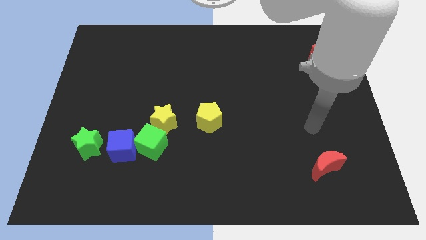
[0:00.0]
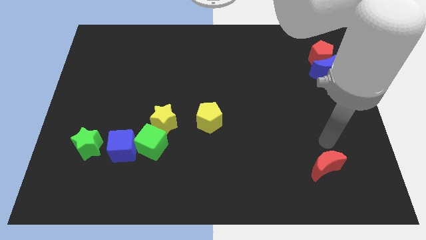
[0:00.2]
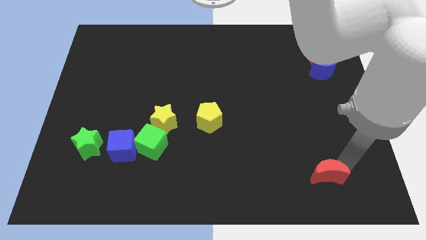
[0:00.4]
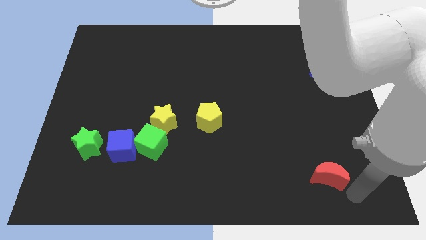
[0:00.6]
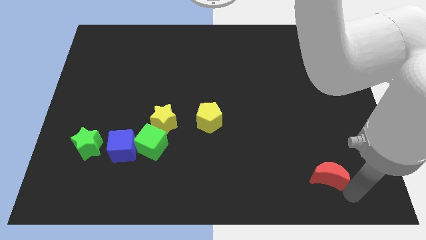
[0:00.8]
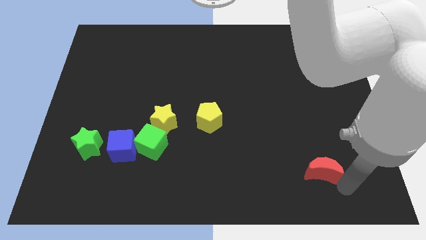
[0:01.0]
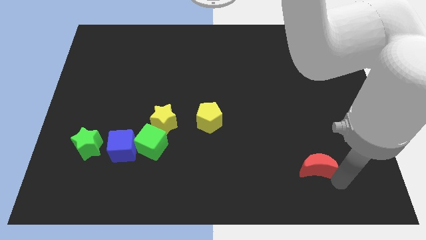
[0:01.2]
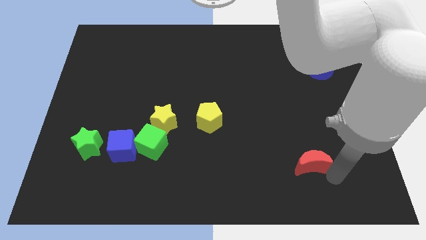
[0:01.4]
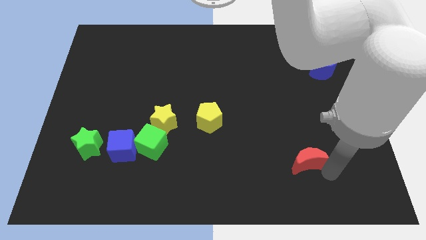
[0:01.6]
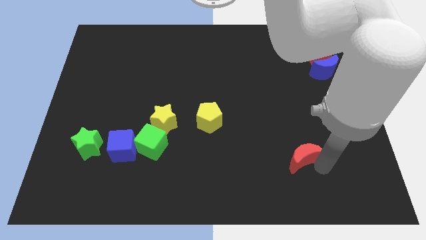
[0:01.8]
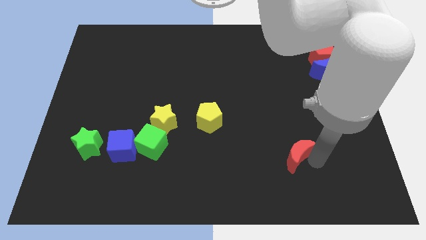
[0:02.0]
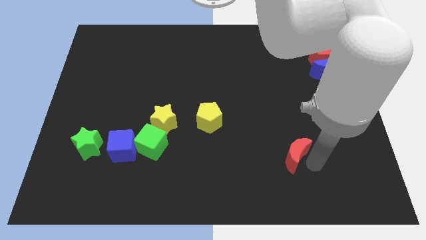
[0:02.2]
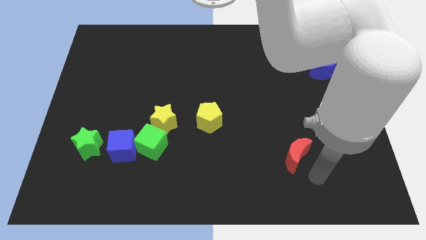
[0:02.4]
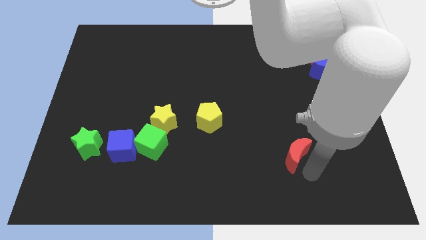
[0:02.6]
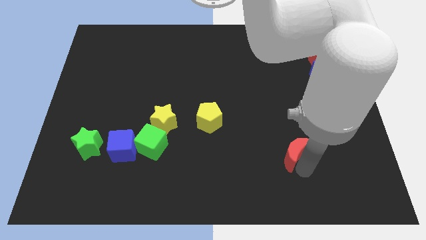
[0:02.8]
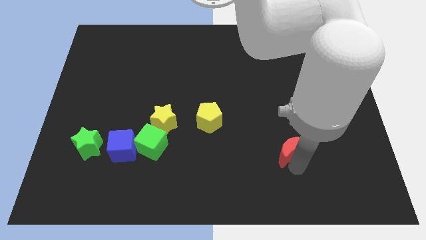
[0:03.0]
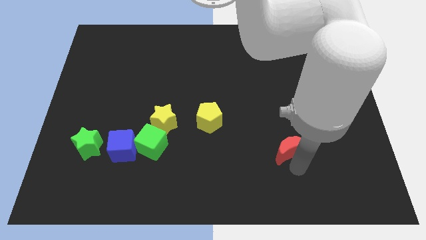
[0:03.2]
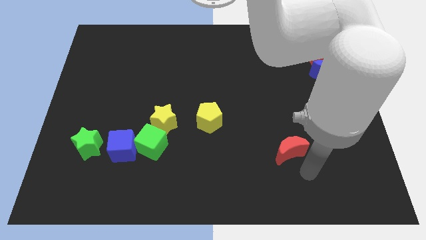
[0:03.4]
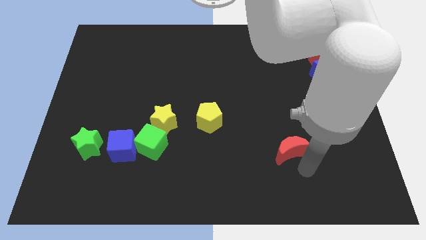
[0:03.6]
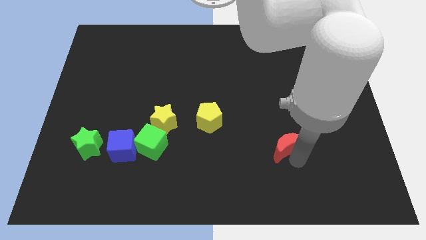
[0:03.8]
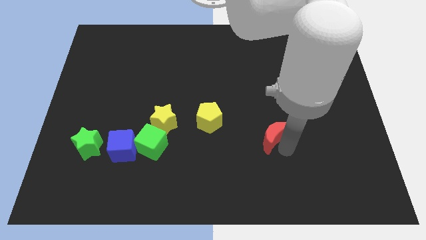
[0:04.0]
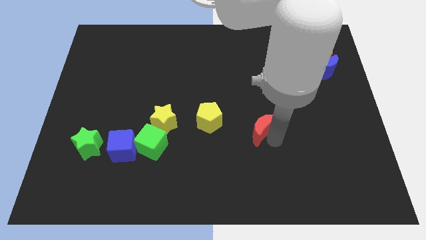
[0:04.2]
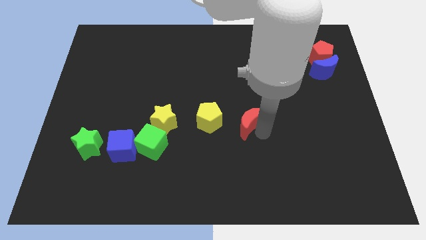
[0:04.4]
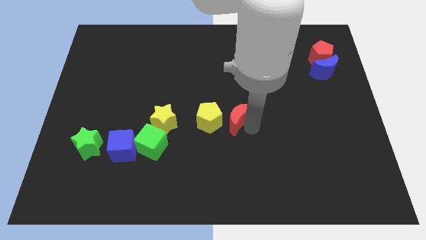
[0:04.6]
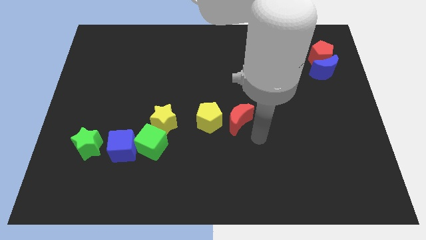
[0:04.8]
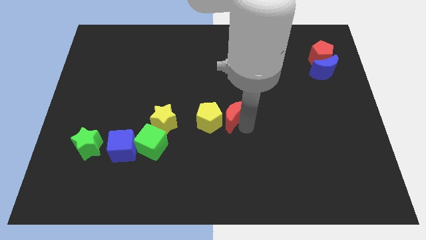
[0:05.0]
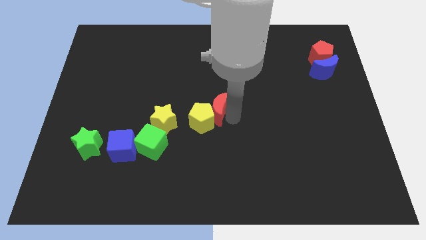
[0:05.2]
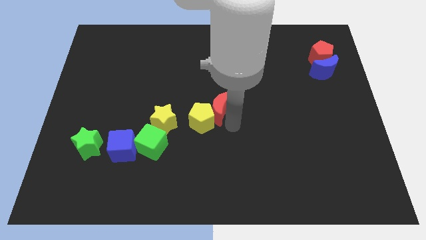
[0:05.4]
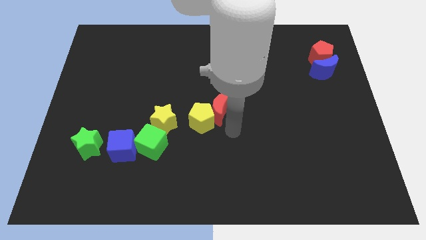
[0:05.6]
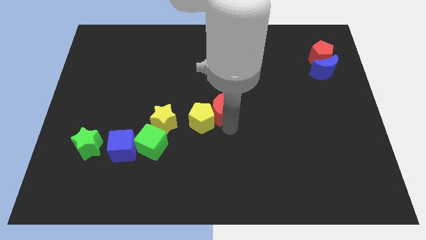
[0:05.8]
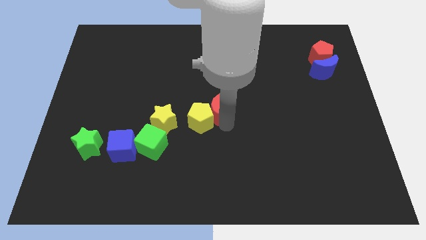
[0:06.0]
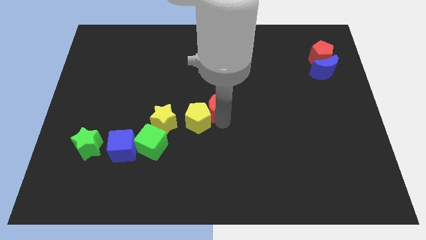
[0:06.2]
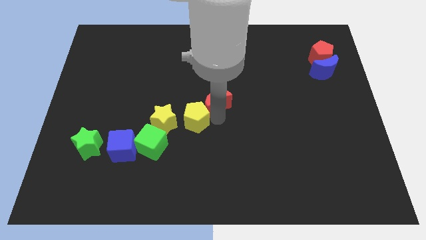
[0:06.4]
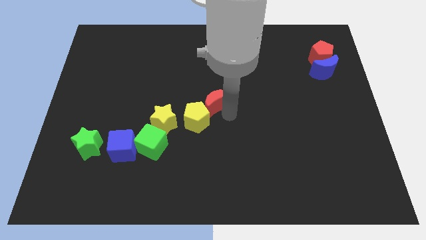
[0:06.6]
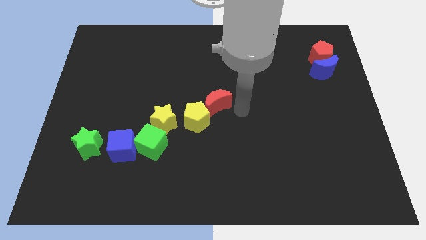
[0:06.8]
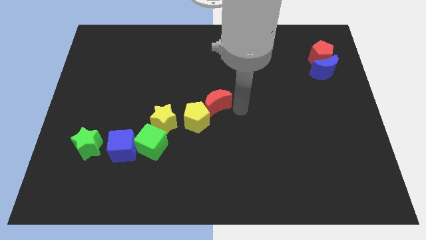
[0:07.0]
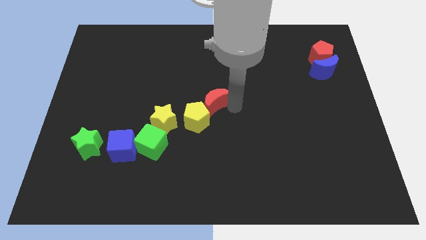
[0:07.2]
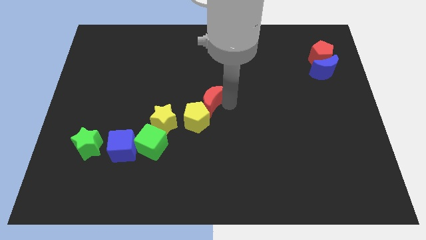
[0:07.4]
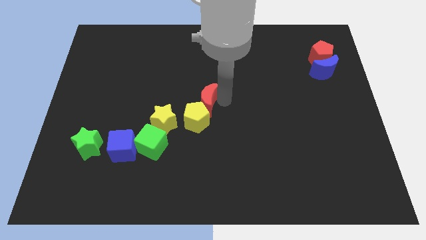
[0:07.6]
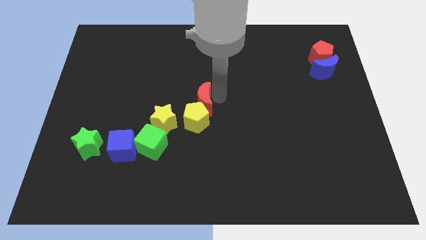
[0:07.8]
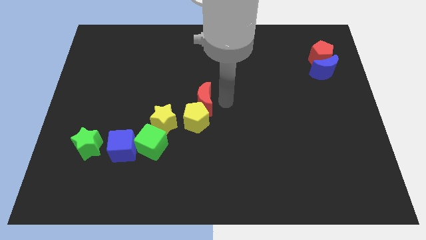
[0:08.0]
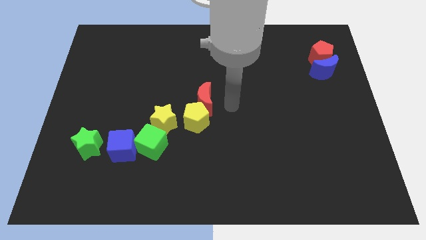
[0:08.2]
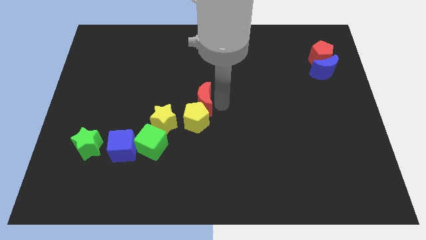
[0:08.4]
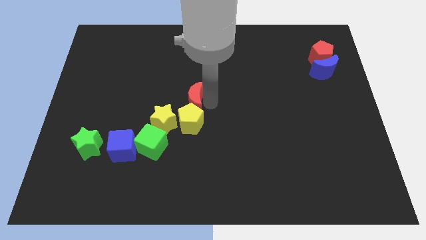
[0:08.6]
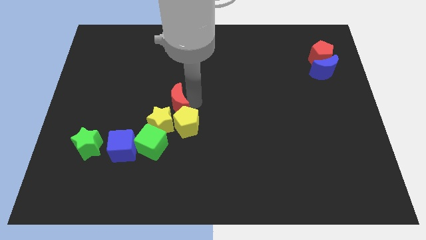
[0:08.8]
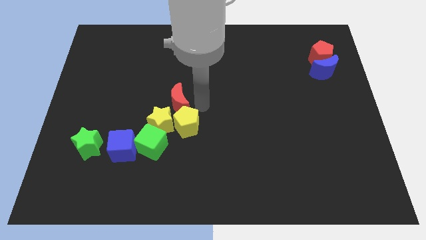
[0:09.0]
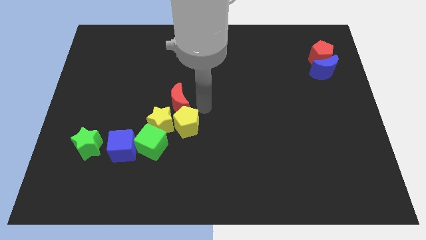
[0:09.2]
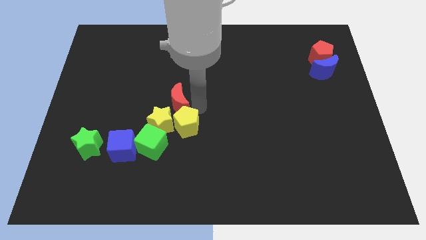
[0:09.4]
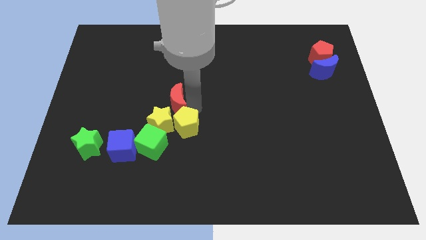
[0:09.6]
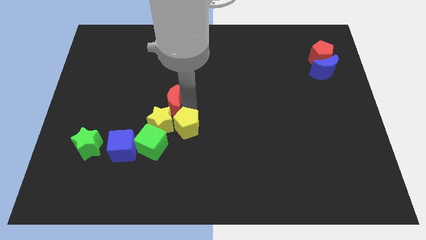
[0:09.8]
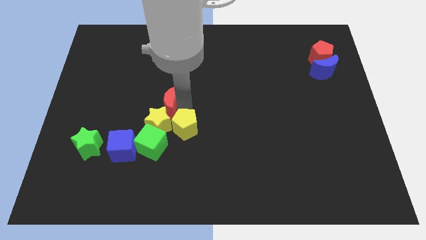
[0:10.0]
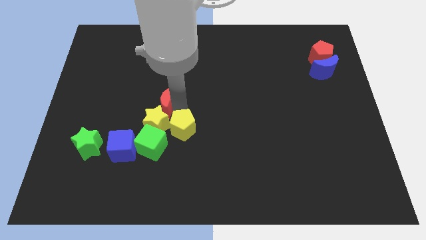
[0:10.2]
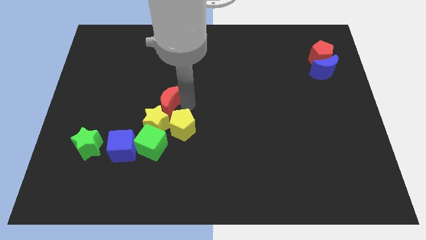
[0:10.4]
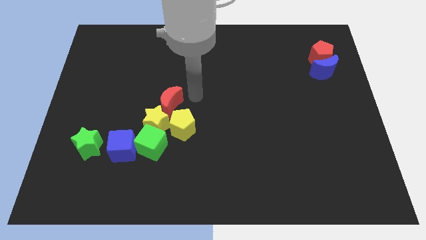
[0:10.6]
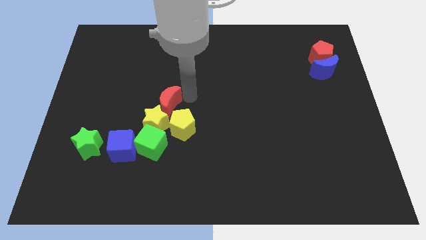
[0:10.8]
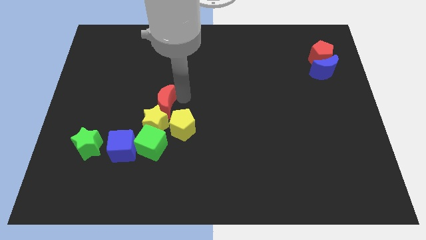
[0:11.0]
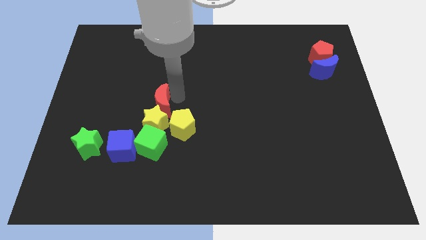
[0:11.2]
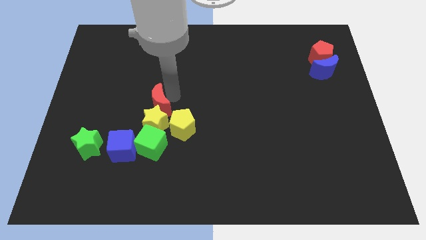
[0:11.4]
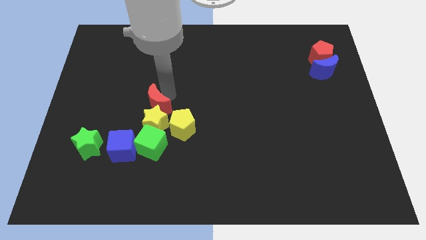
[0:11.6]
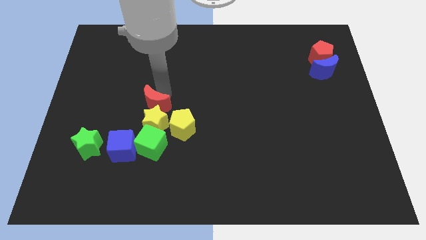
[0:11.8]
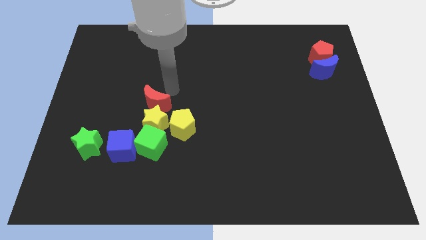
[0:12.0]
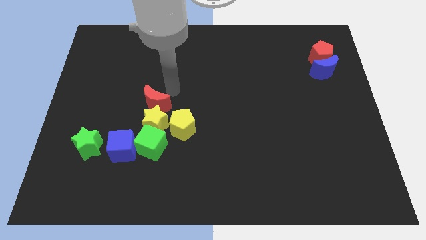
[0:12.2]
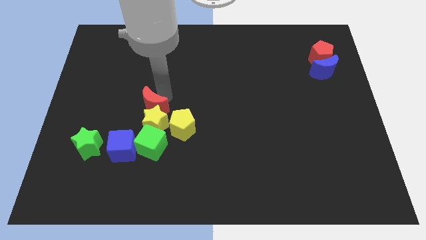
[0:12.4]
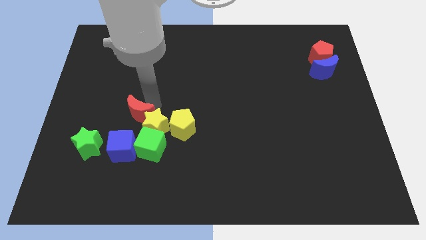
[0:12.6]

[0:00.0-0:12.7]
slide the red moon to the top left of the green cube

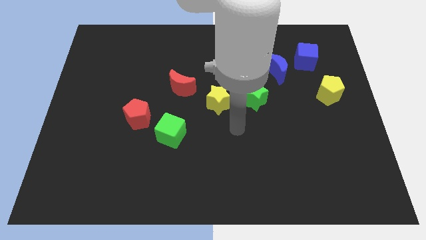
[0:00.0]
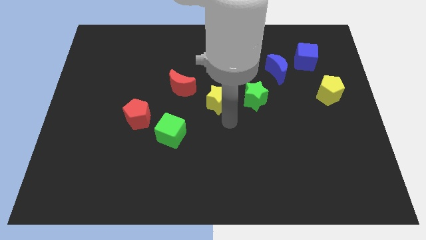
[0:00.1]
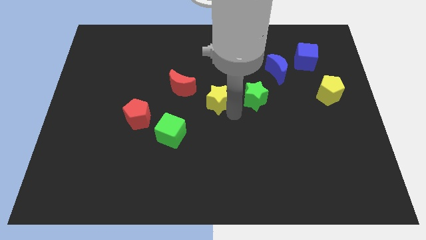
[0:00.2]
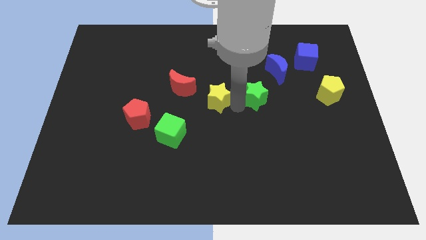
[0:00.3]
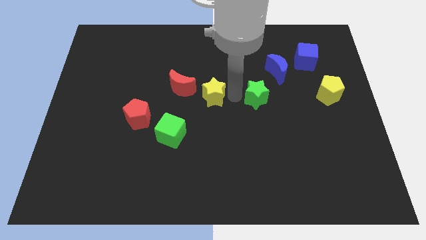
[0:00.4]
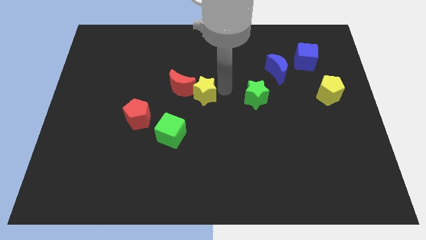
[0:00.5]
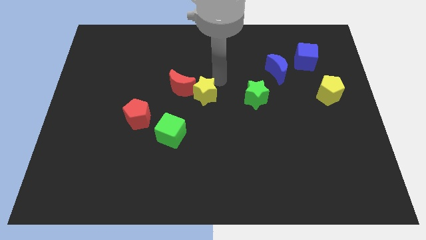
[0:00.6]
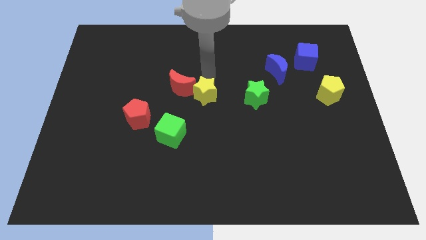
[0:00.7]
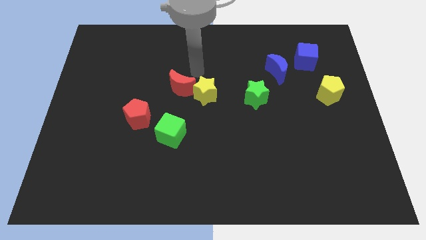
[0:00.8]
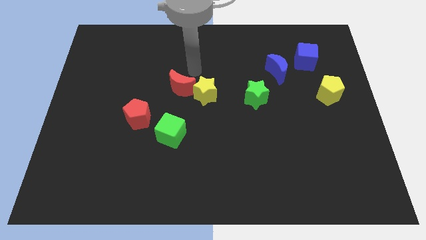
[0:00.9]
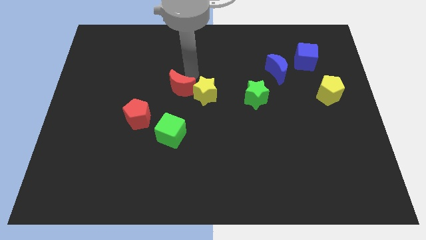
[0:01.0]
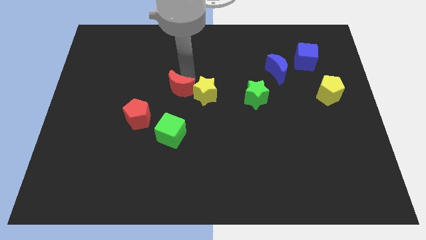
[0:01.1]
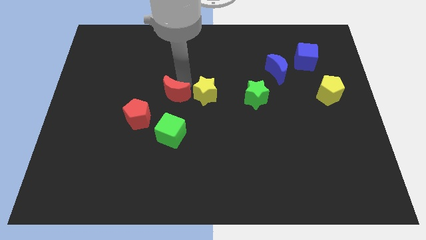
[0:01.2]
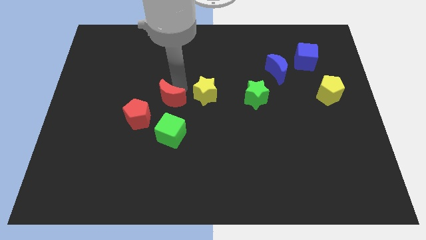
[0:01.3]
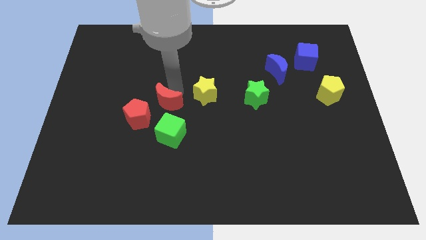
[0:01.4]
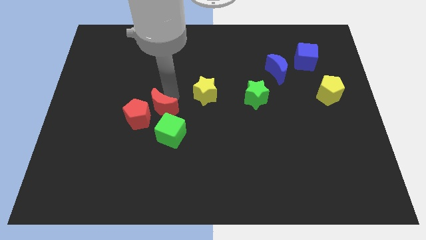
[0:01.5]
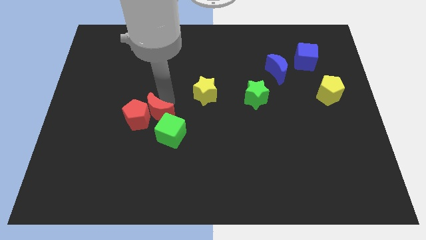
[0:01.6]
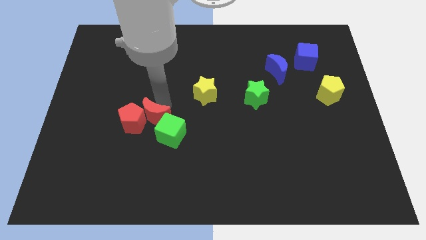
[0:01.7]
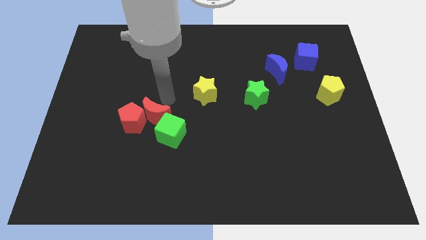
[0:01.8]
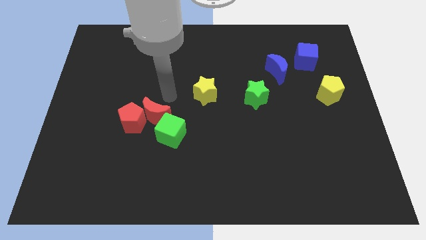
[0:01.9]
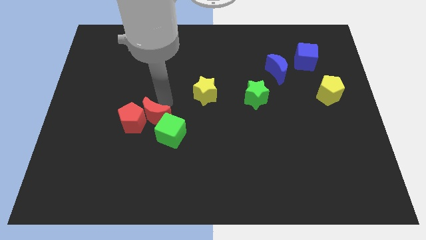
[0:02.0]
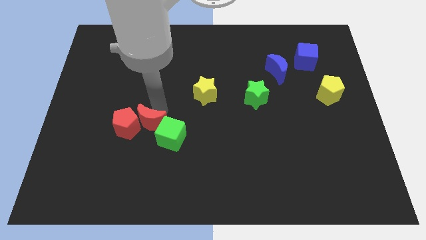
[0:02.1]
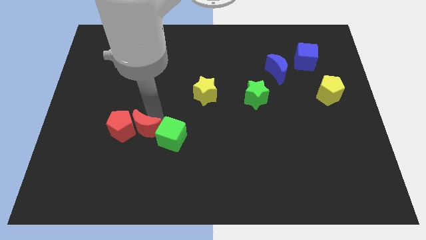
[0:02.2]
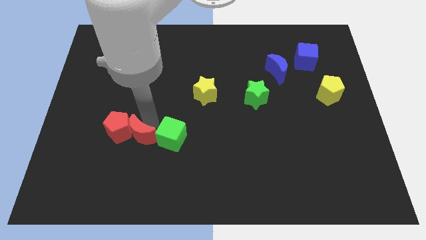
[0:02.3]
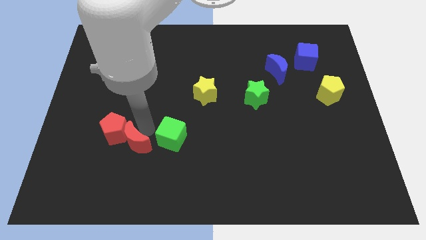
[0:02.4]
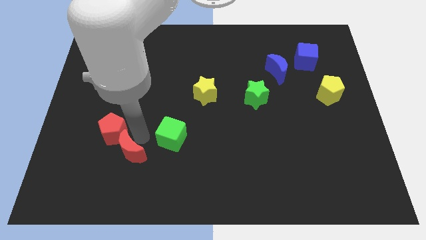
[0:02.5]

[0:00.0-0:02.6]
push the red moon to the bottom of the red pentagon
